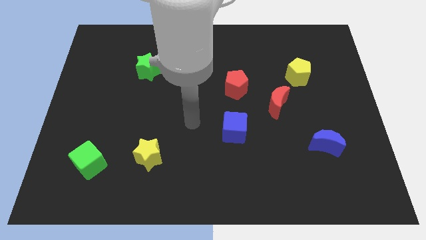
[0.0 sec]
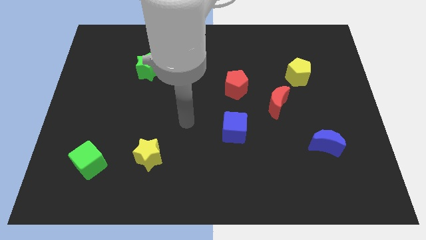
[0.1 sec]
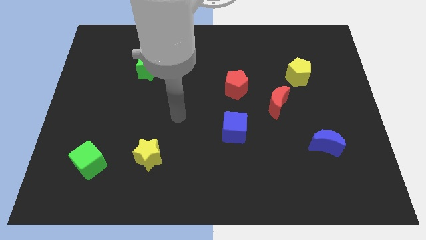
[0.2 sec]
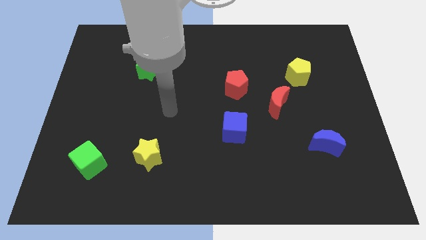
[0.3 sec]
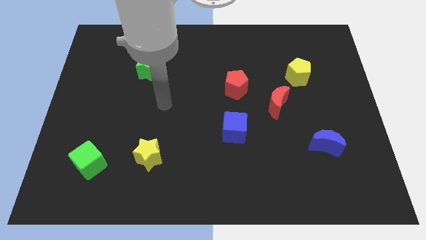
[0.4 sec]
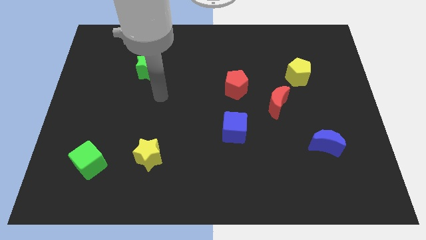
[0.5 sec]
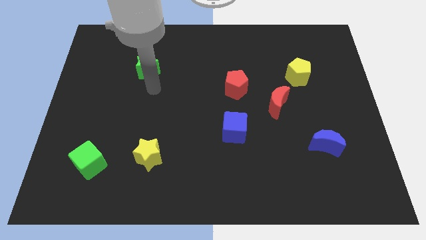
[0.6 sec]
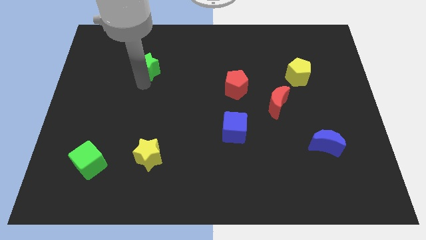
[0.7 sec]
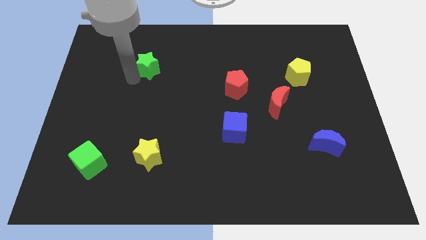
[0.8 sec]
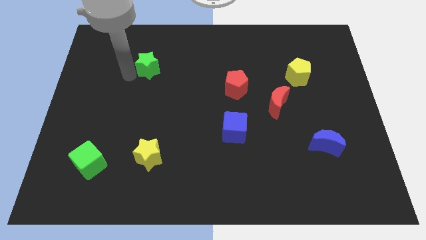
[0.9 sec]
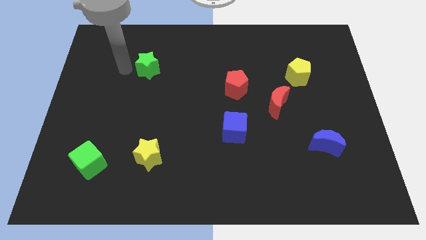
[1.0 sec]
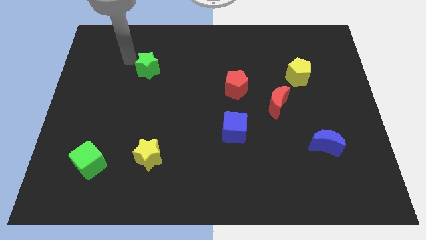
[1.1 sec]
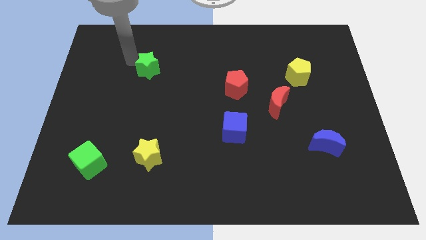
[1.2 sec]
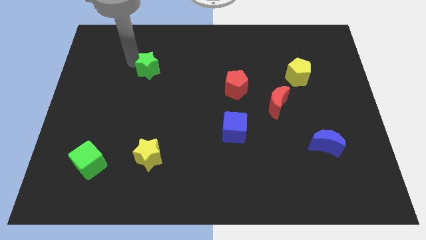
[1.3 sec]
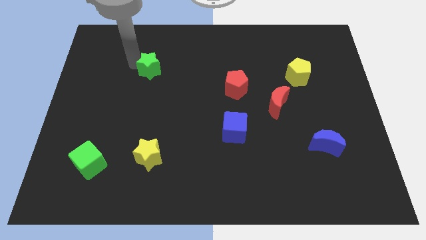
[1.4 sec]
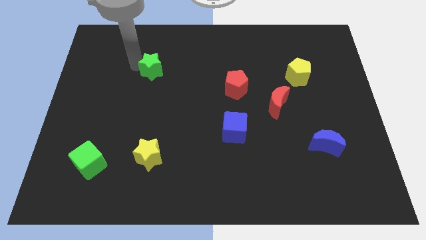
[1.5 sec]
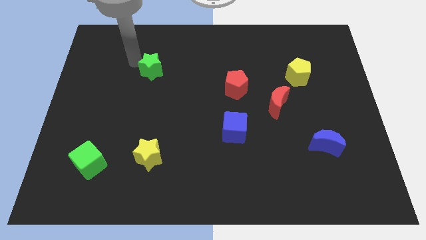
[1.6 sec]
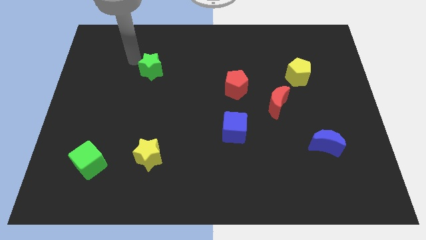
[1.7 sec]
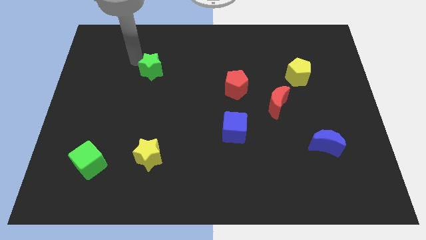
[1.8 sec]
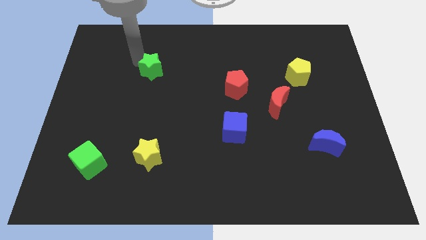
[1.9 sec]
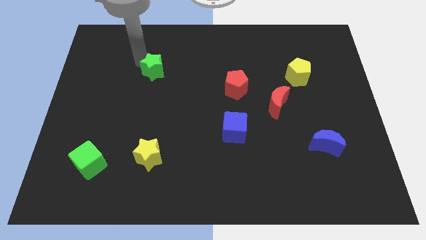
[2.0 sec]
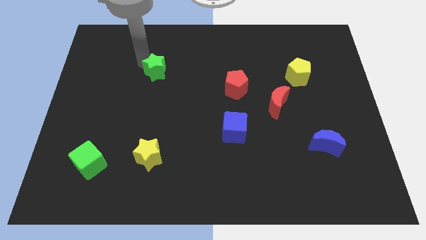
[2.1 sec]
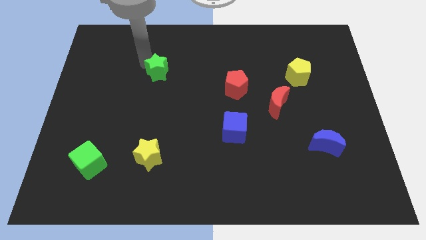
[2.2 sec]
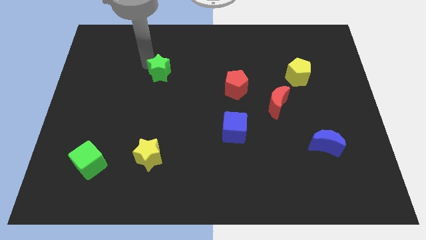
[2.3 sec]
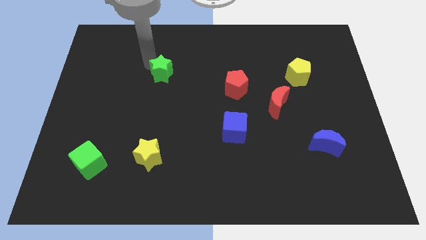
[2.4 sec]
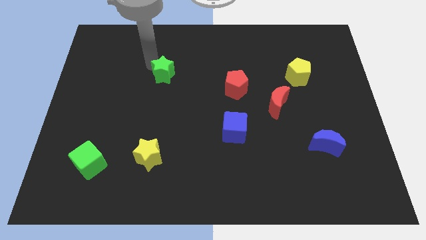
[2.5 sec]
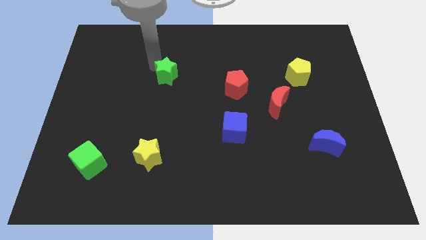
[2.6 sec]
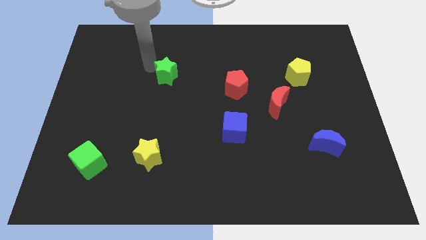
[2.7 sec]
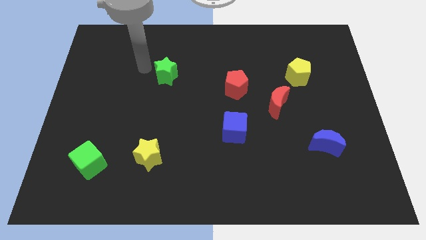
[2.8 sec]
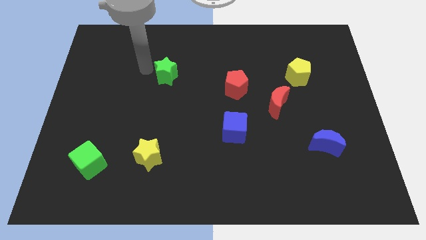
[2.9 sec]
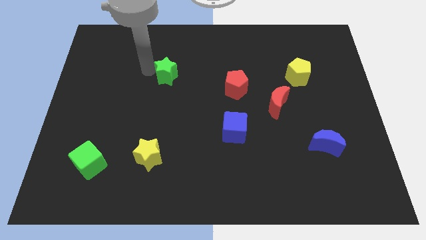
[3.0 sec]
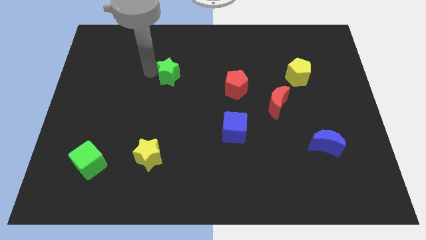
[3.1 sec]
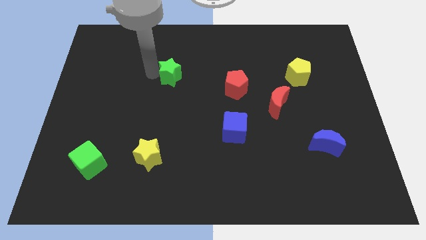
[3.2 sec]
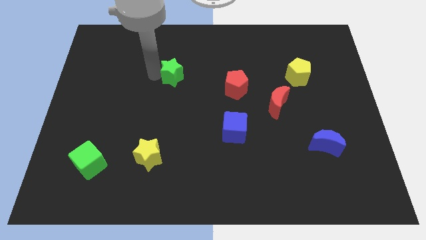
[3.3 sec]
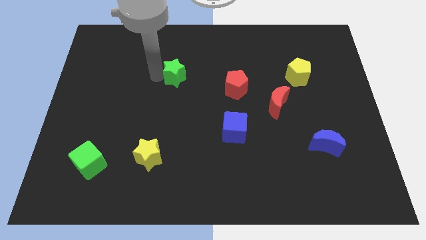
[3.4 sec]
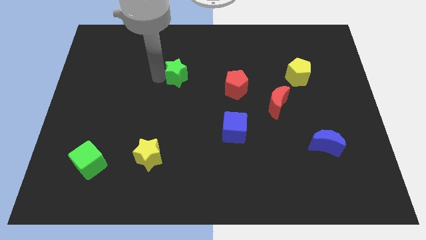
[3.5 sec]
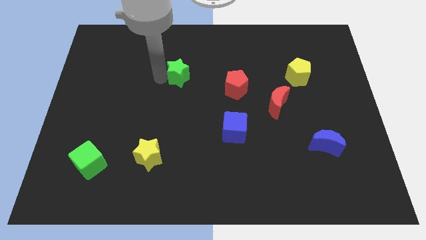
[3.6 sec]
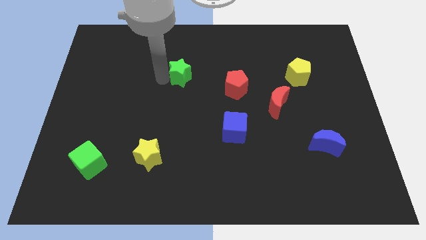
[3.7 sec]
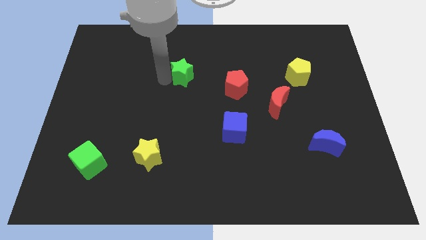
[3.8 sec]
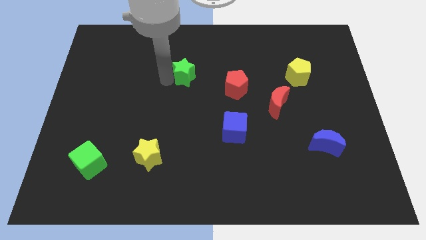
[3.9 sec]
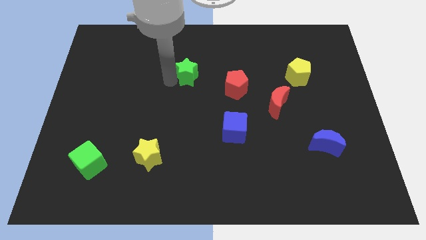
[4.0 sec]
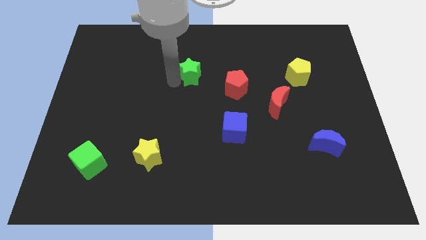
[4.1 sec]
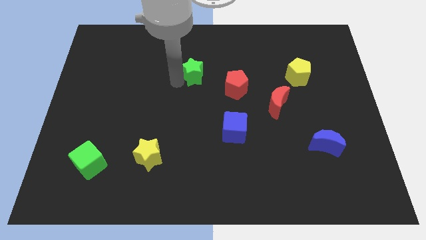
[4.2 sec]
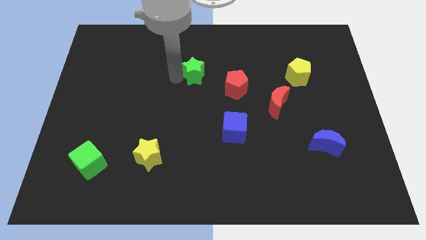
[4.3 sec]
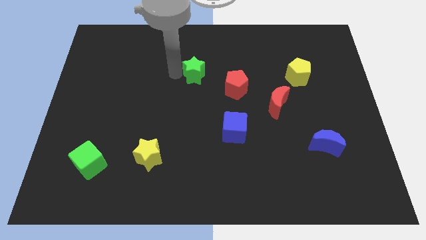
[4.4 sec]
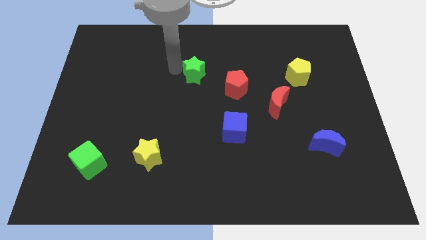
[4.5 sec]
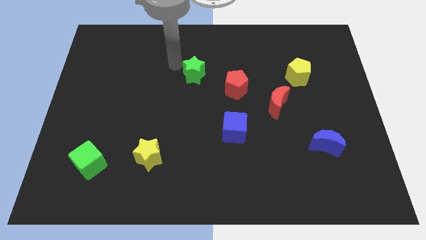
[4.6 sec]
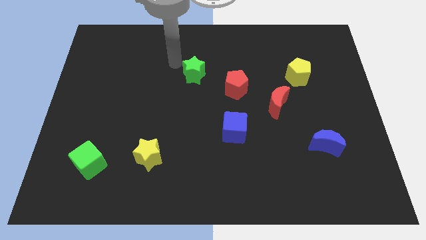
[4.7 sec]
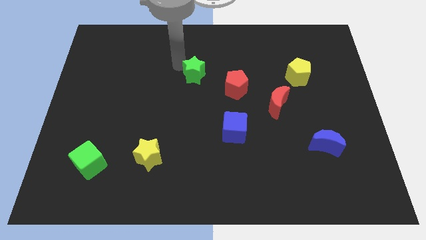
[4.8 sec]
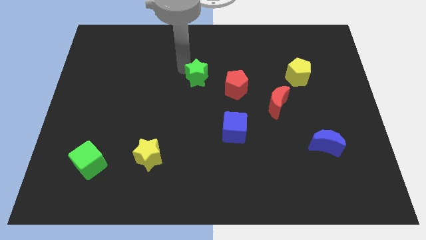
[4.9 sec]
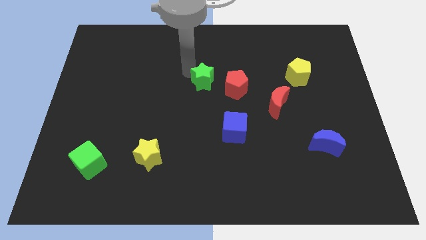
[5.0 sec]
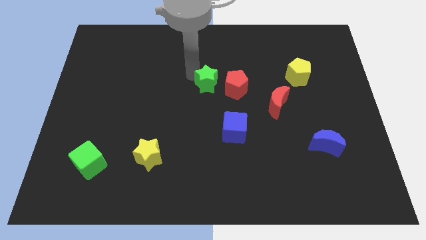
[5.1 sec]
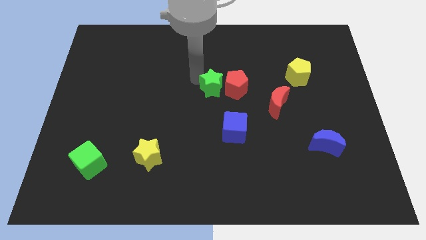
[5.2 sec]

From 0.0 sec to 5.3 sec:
slide the green star close to the red pentagon

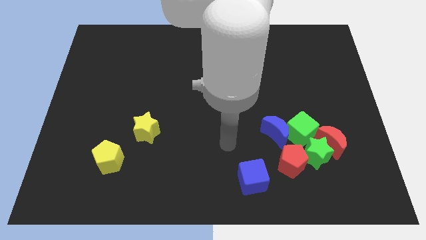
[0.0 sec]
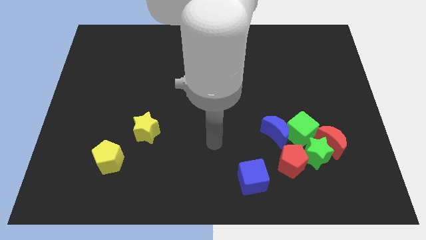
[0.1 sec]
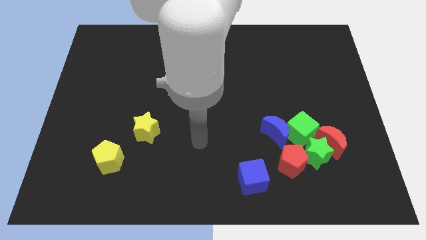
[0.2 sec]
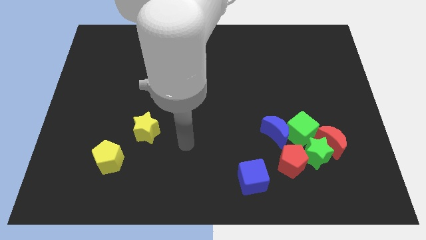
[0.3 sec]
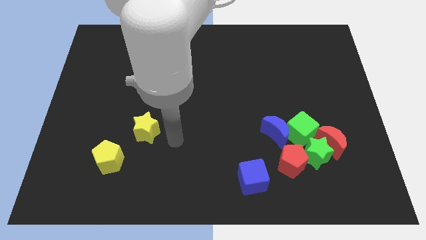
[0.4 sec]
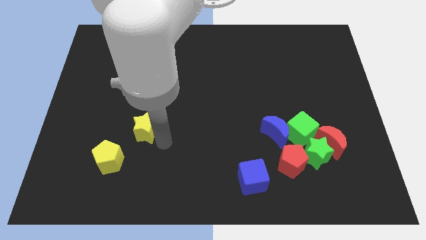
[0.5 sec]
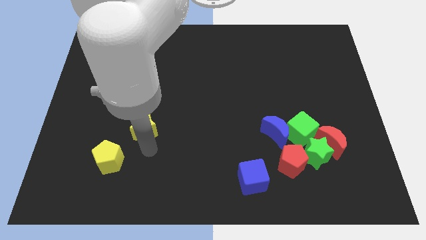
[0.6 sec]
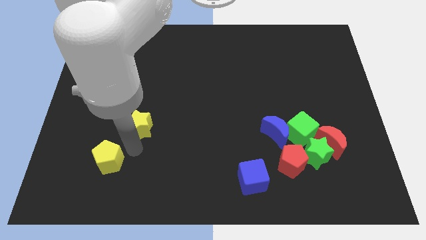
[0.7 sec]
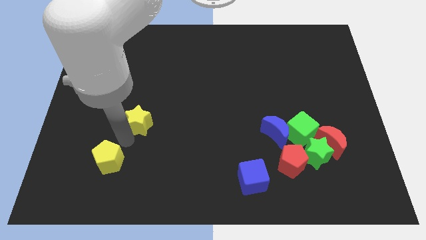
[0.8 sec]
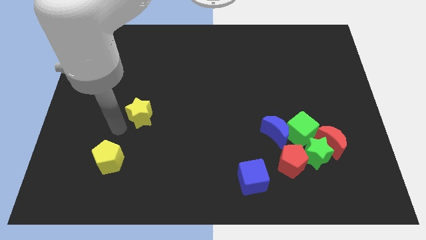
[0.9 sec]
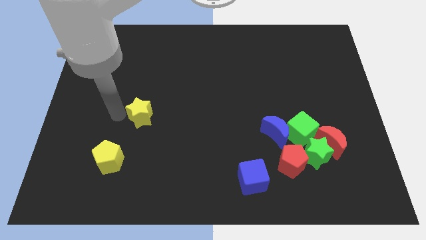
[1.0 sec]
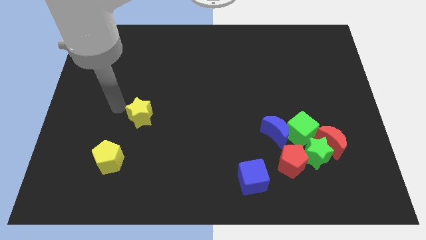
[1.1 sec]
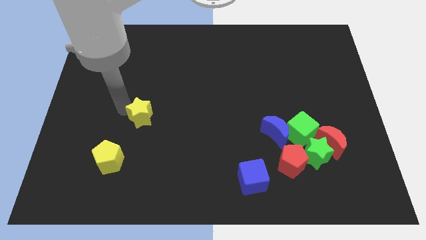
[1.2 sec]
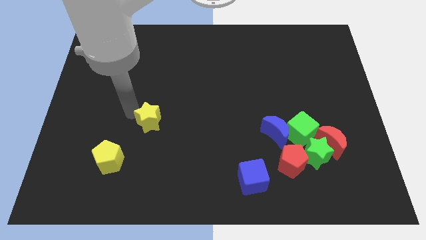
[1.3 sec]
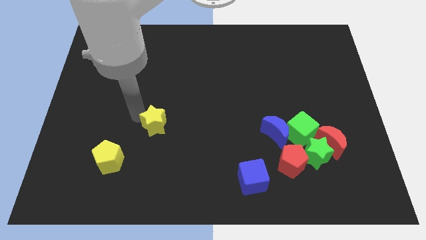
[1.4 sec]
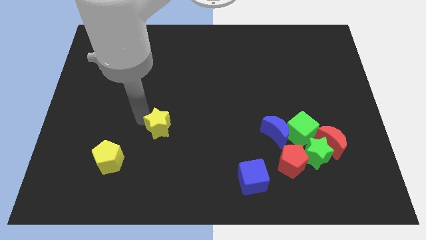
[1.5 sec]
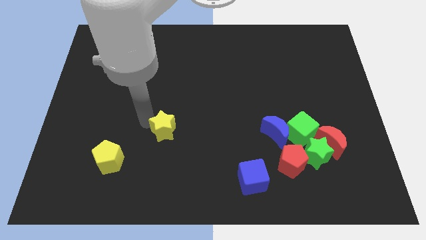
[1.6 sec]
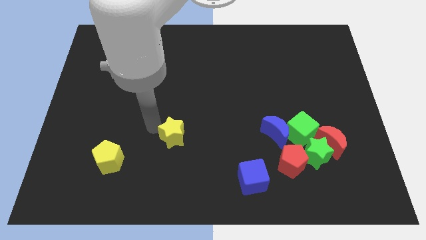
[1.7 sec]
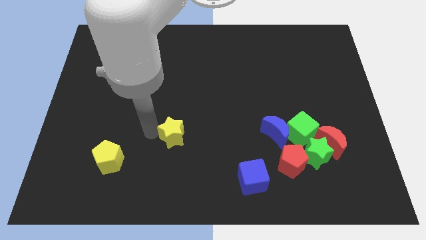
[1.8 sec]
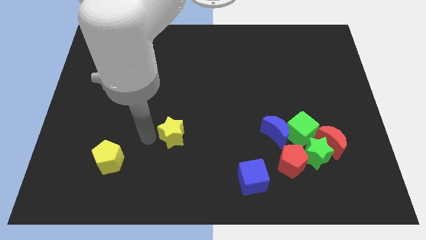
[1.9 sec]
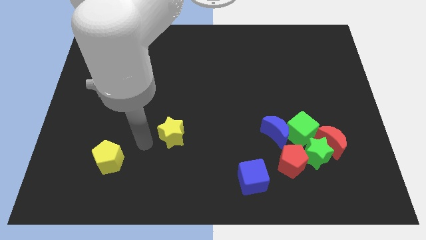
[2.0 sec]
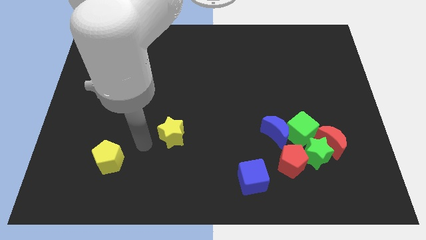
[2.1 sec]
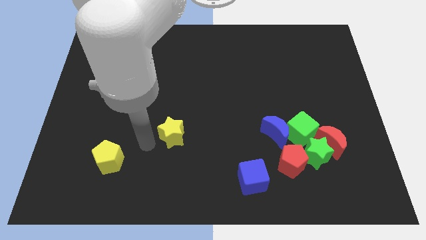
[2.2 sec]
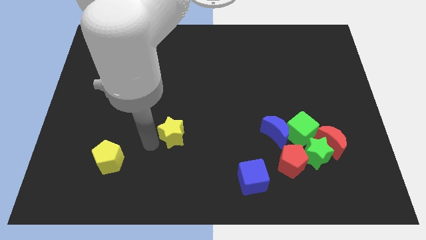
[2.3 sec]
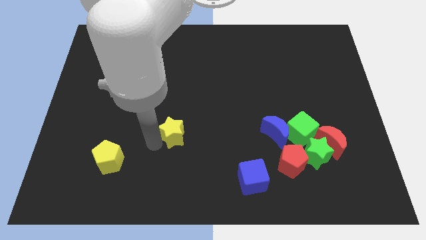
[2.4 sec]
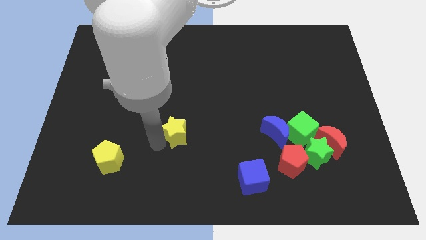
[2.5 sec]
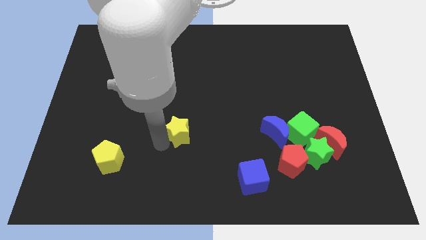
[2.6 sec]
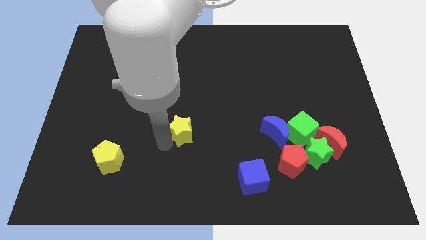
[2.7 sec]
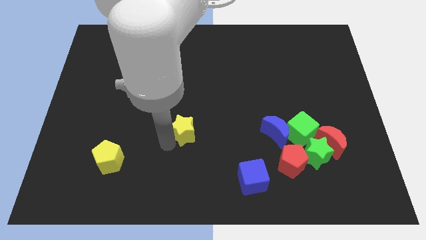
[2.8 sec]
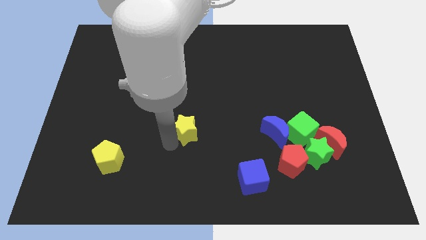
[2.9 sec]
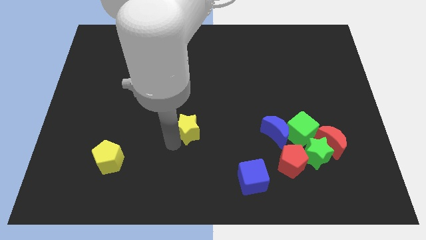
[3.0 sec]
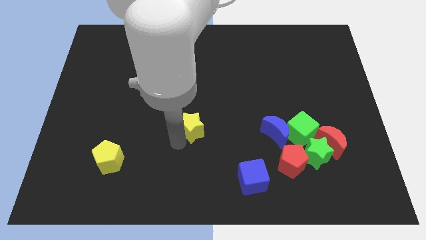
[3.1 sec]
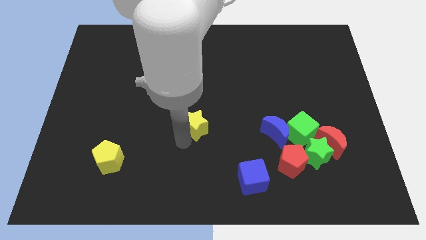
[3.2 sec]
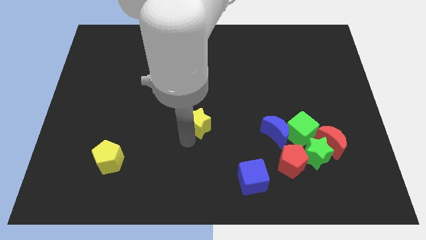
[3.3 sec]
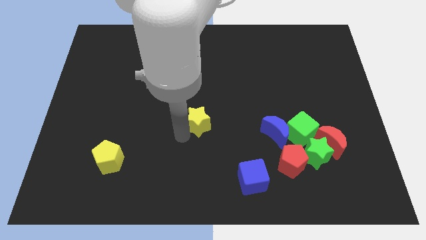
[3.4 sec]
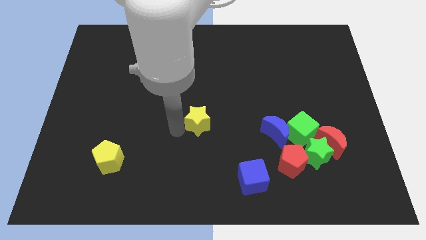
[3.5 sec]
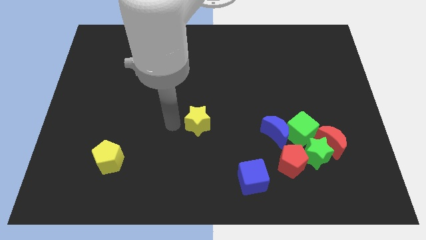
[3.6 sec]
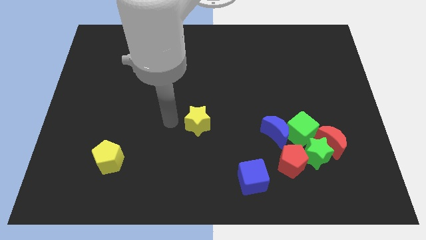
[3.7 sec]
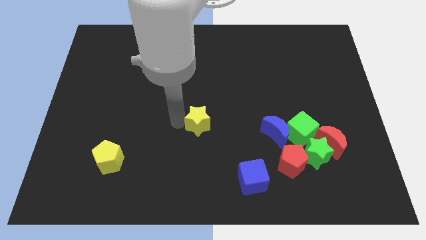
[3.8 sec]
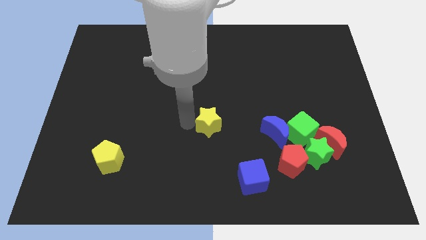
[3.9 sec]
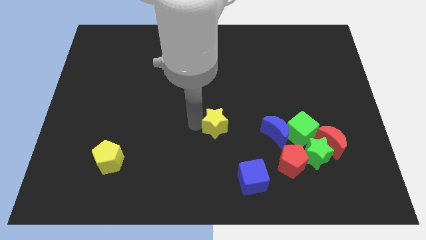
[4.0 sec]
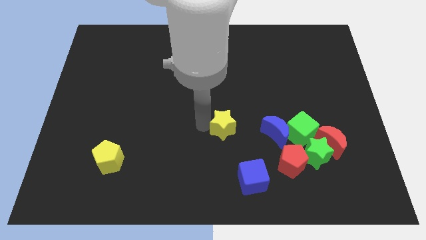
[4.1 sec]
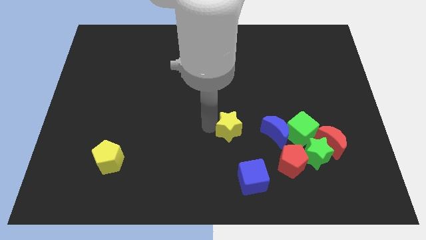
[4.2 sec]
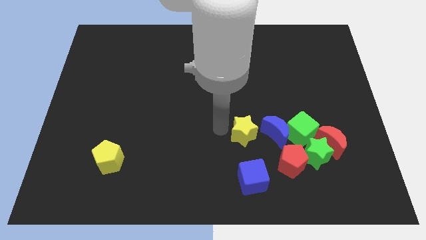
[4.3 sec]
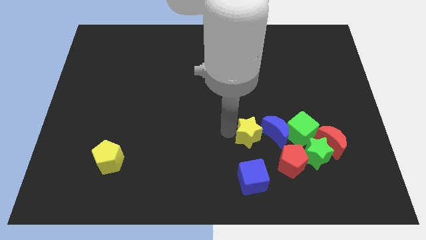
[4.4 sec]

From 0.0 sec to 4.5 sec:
move the yellow star next to the blue moon
